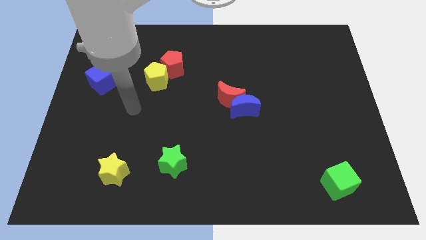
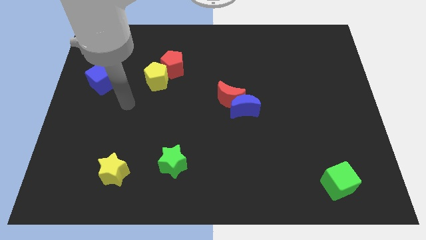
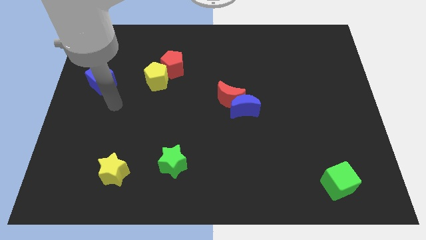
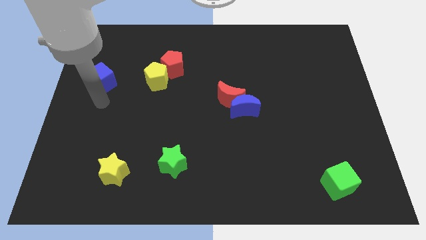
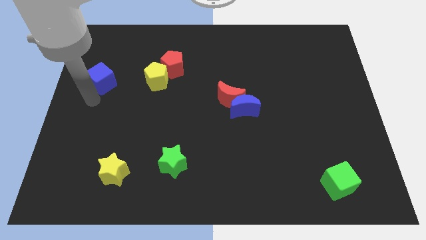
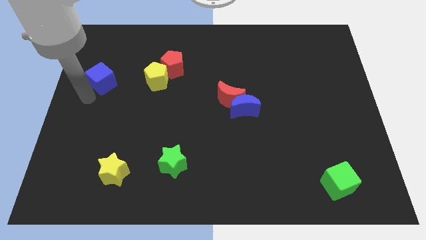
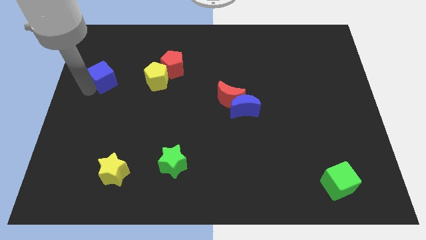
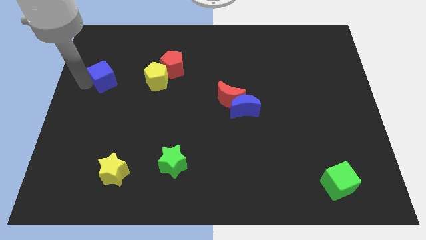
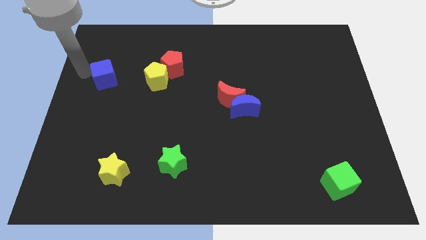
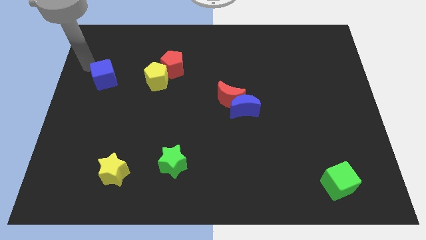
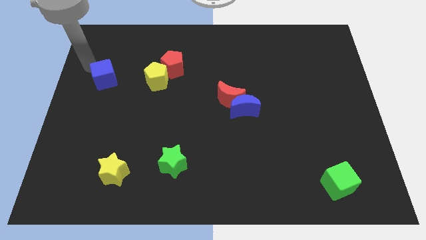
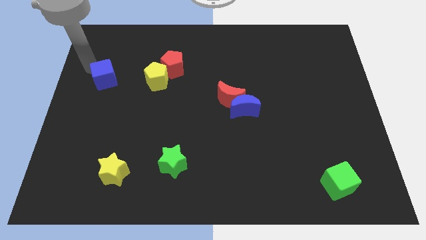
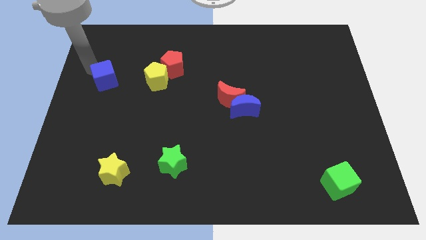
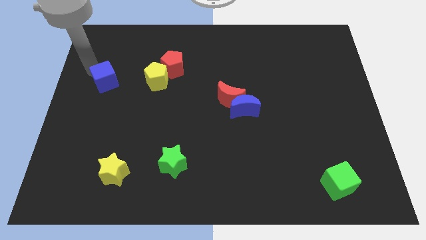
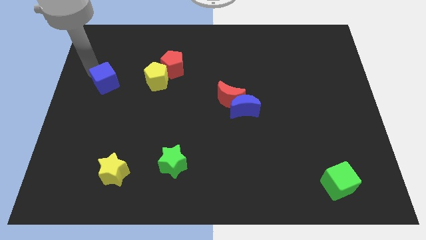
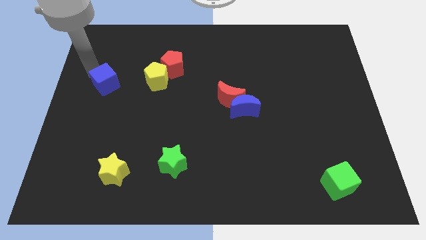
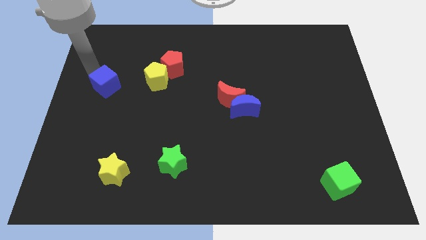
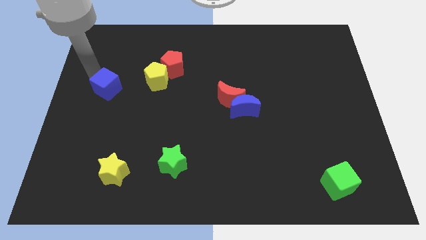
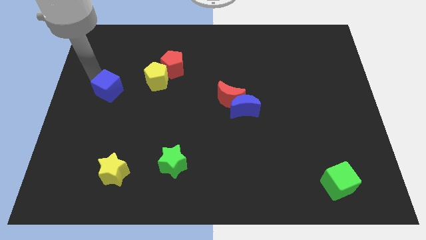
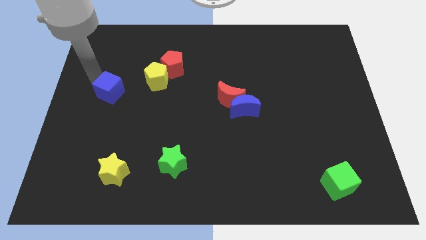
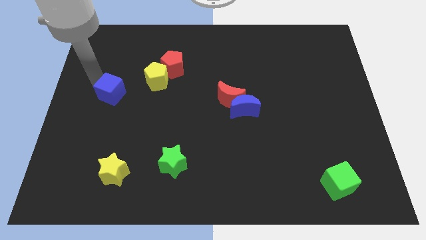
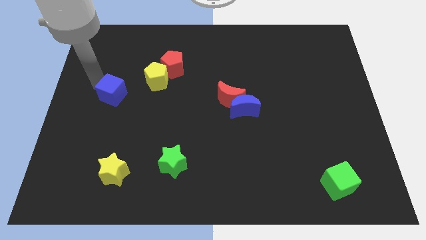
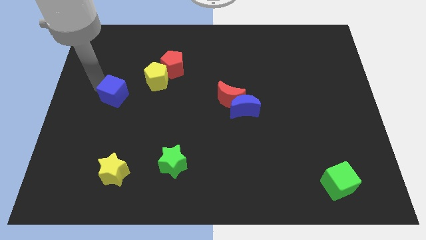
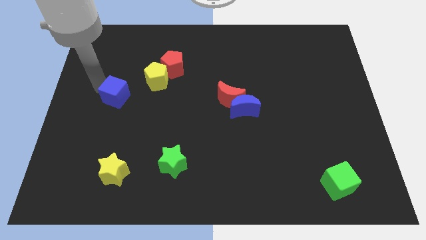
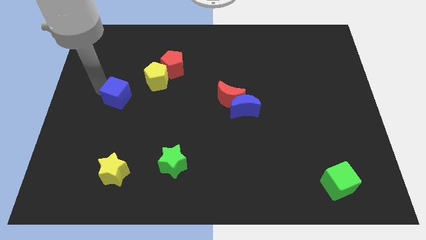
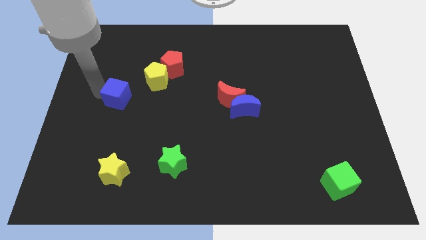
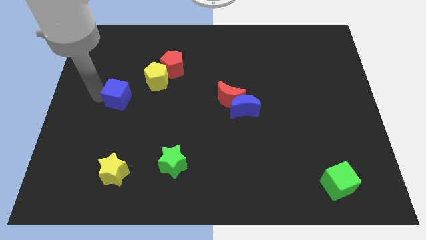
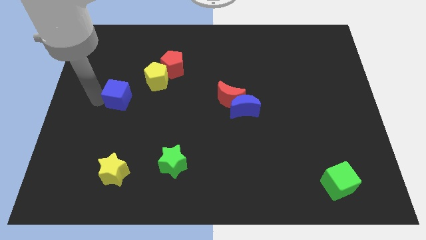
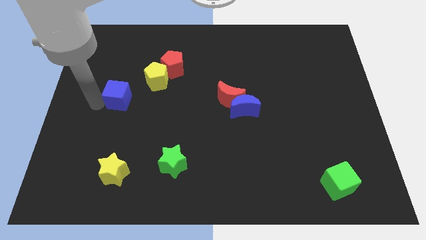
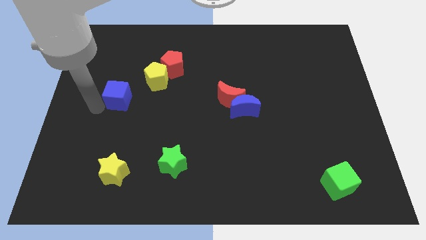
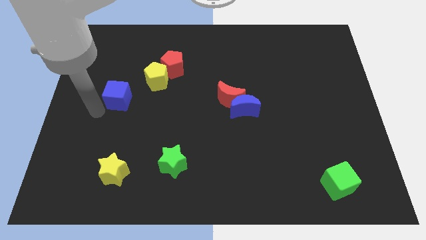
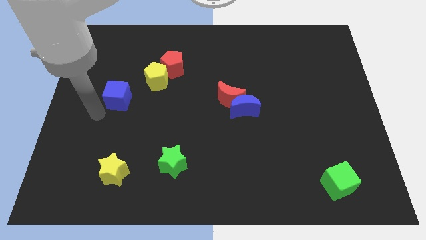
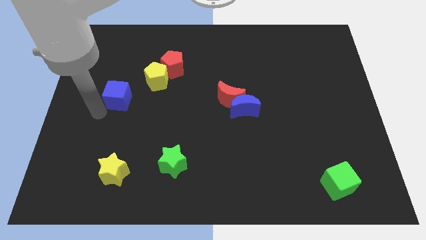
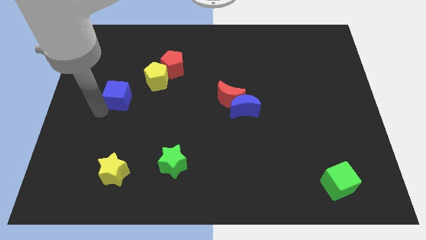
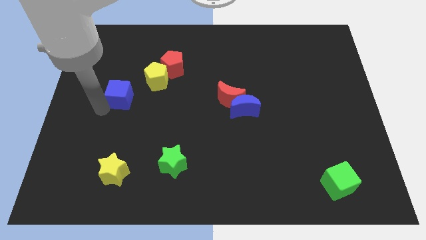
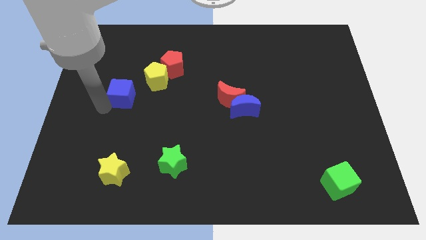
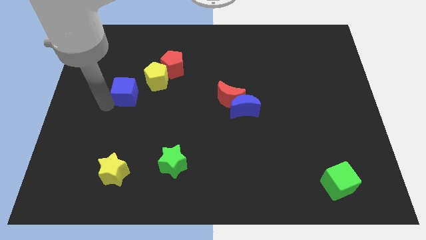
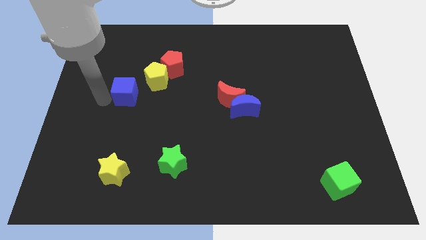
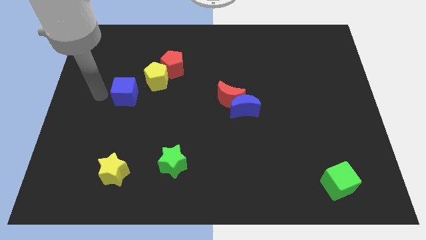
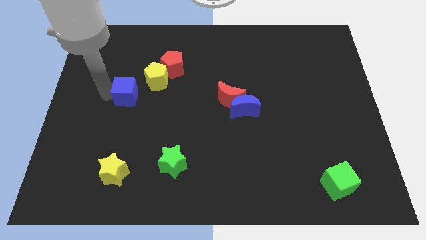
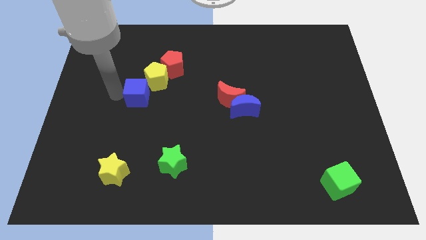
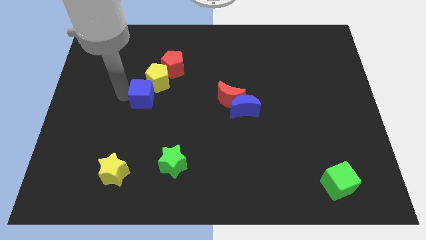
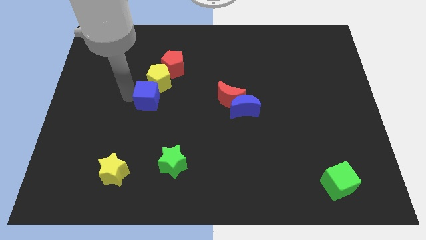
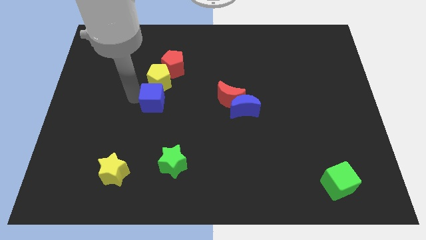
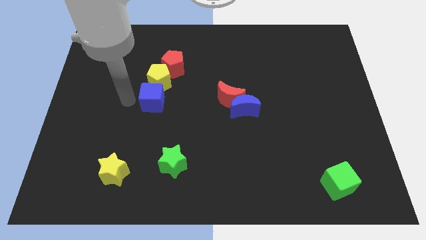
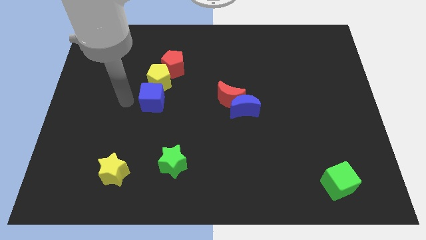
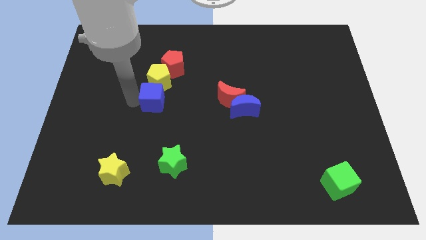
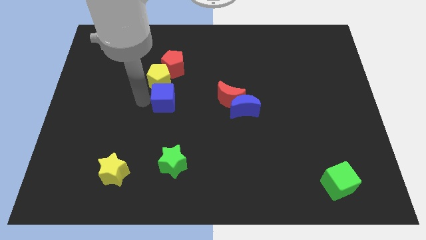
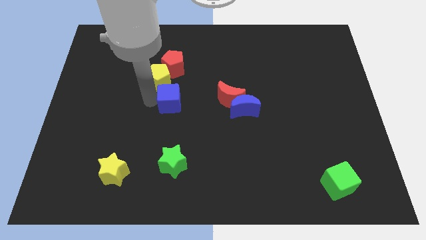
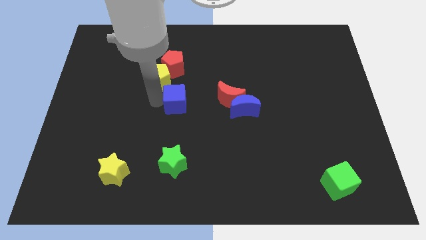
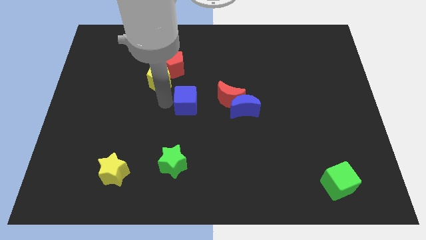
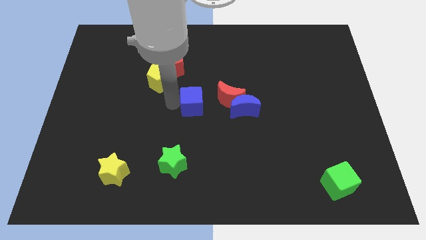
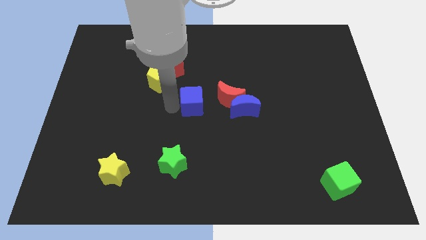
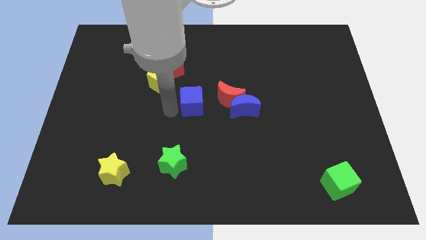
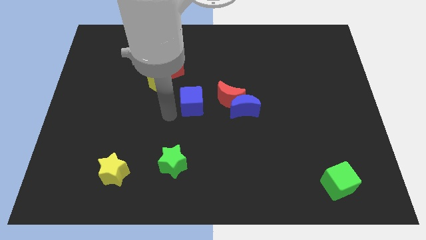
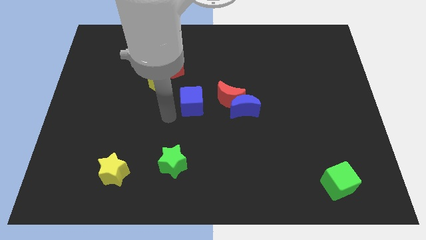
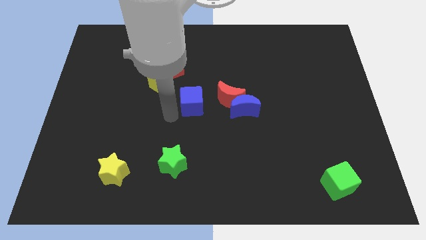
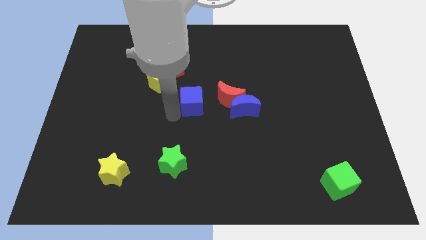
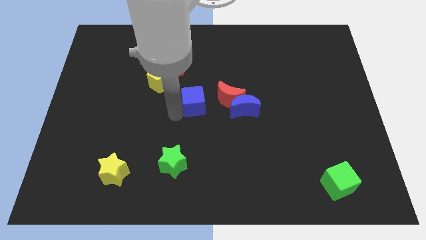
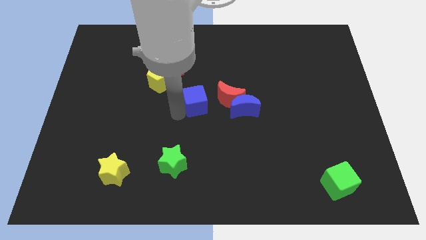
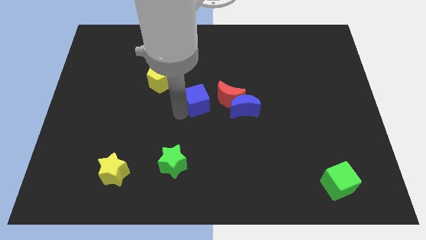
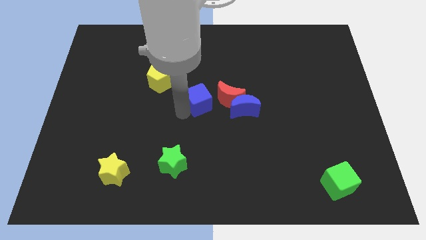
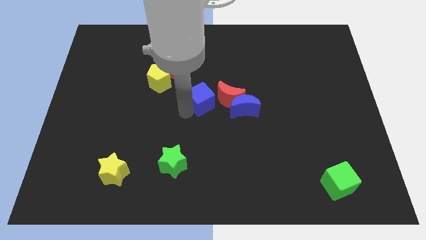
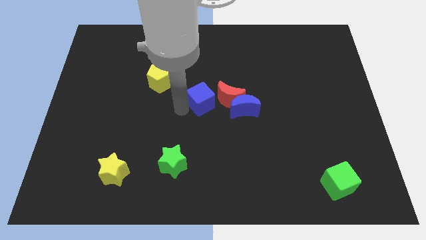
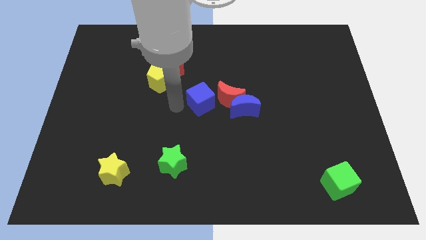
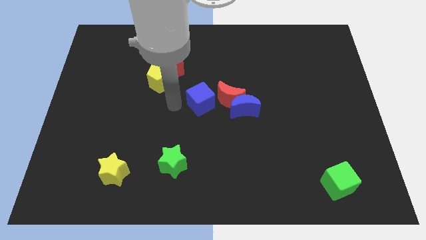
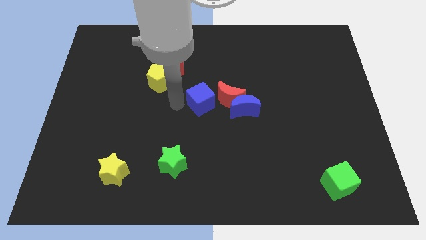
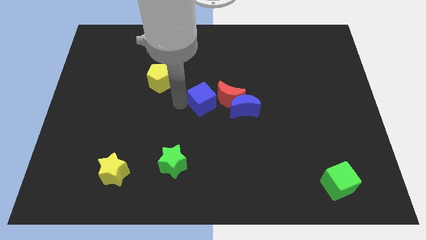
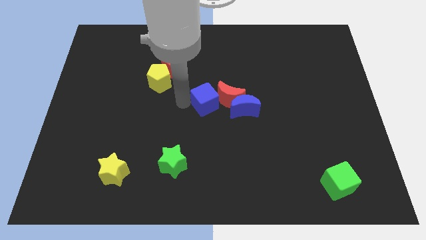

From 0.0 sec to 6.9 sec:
move the blue cube towards the red moon

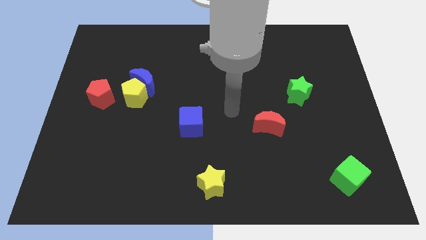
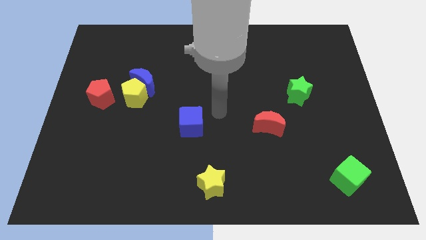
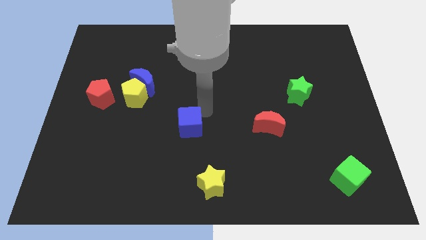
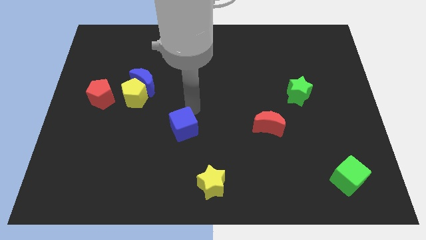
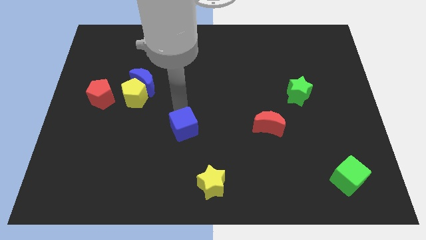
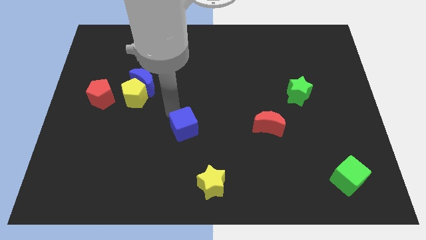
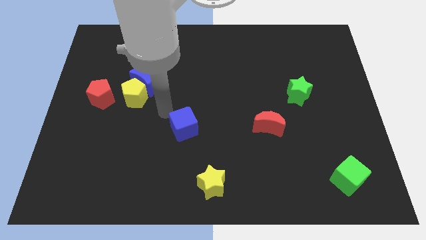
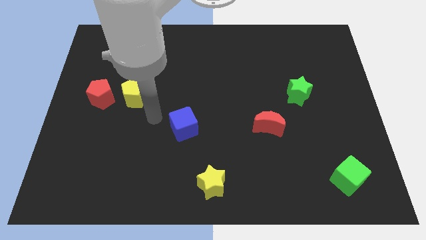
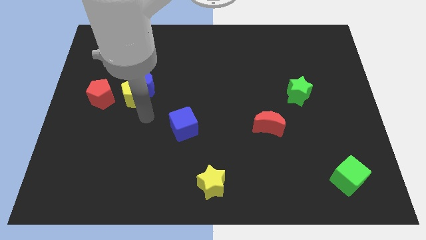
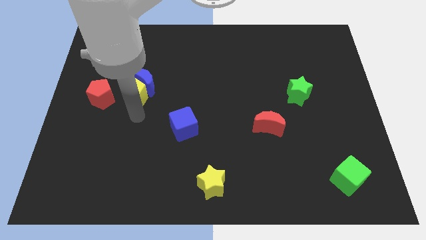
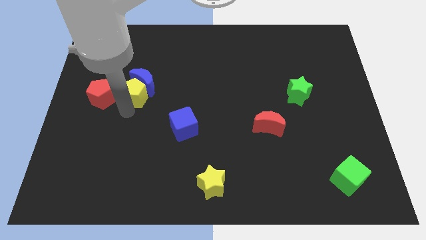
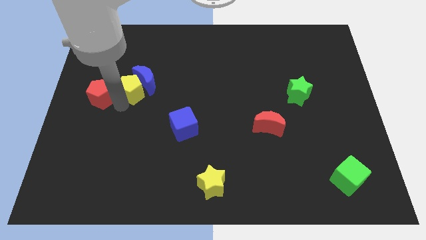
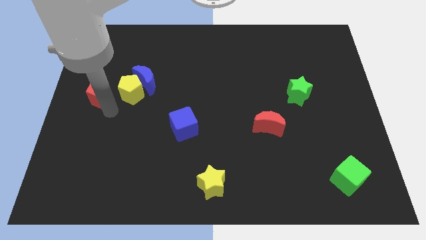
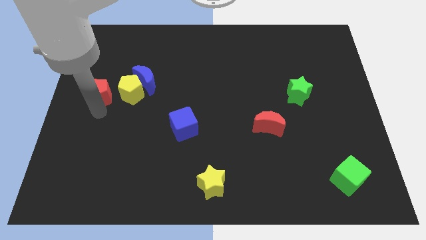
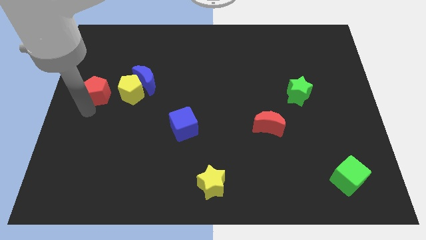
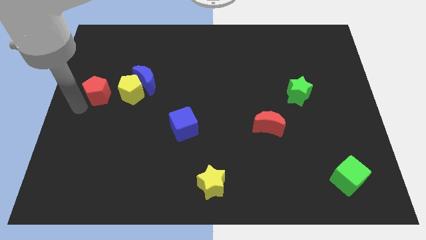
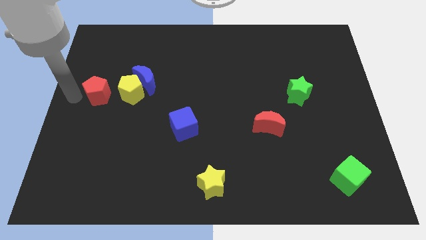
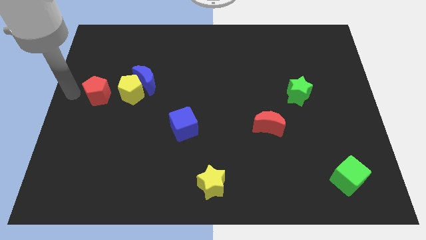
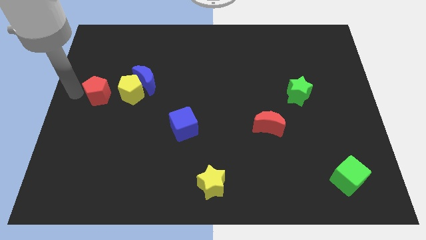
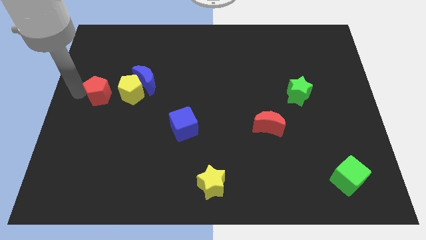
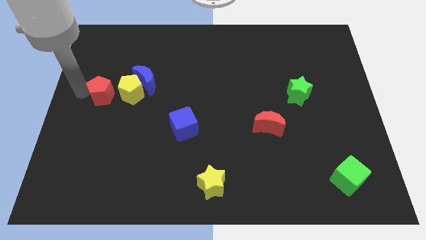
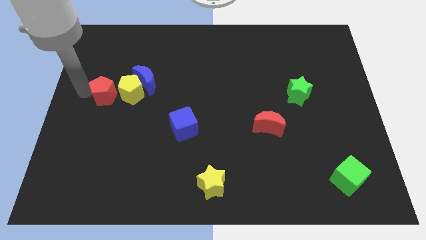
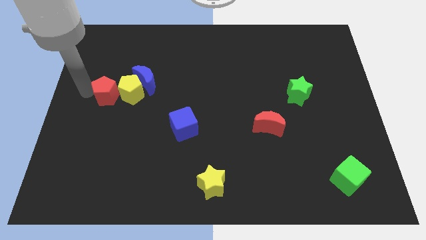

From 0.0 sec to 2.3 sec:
move the red pentagon close to the yellow pentagon
